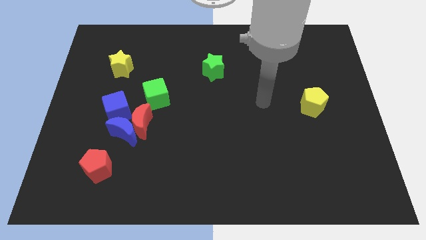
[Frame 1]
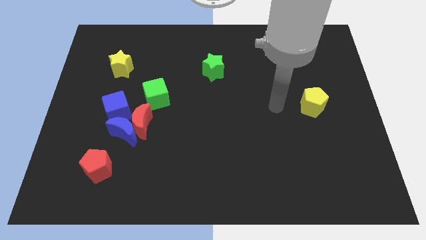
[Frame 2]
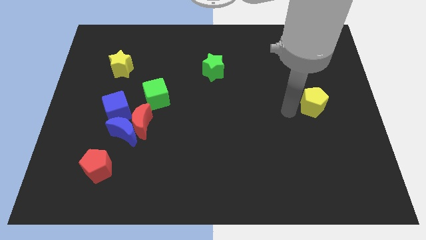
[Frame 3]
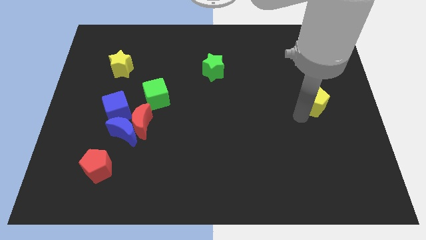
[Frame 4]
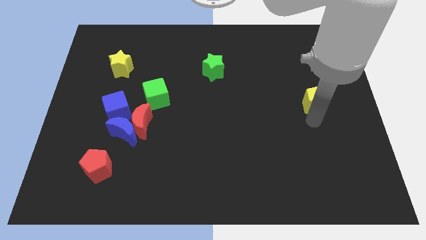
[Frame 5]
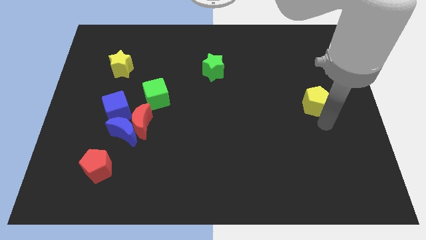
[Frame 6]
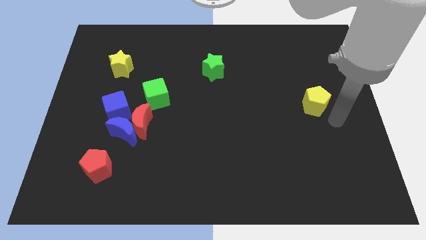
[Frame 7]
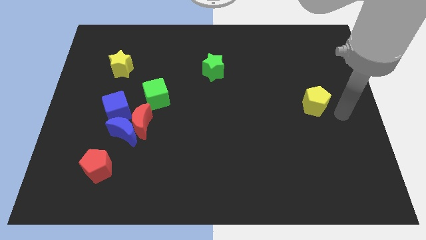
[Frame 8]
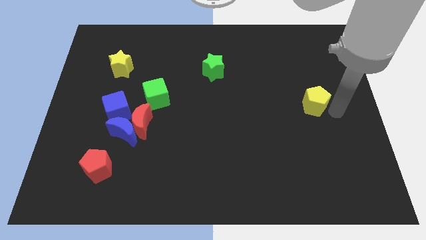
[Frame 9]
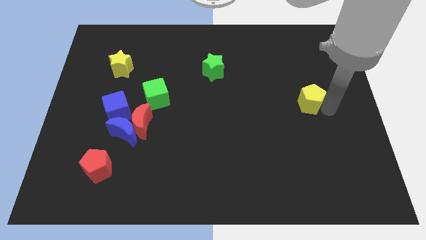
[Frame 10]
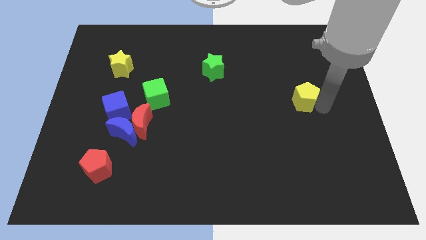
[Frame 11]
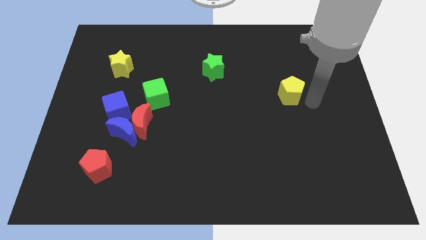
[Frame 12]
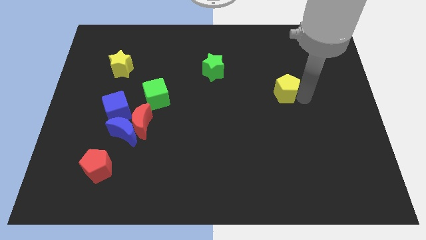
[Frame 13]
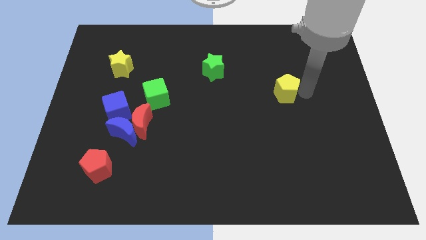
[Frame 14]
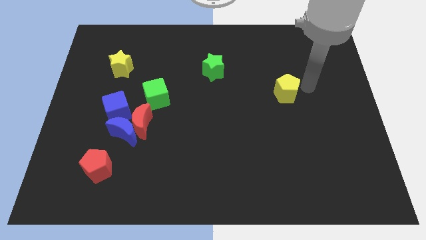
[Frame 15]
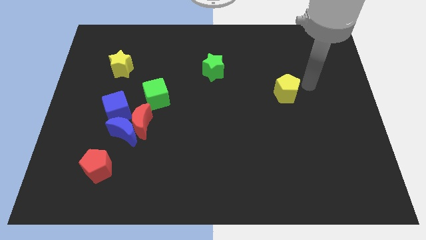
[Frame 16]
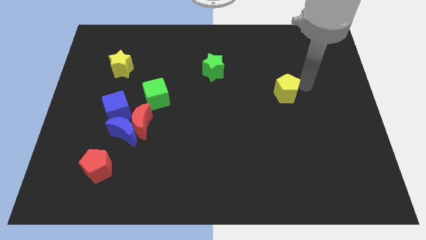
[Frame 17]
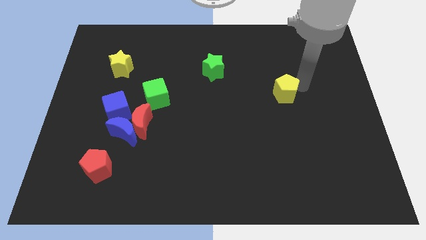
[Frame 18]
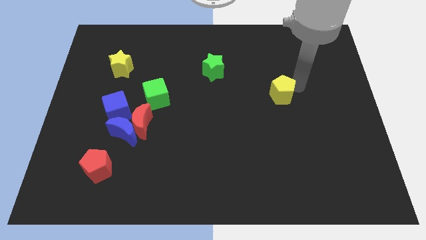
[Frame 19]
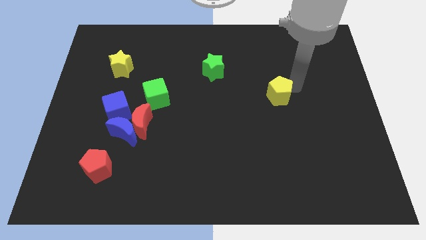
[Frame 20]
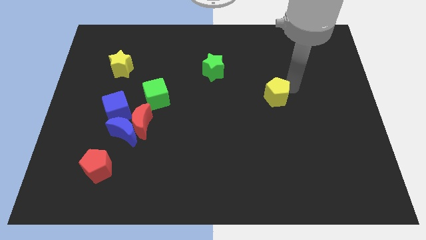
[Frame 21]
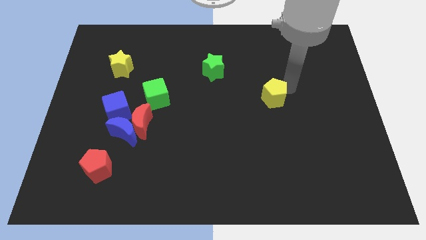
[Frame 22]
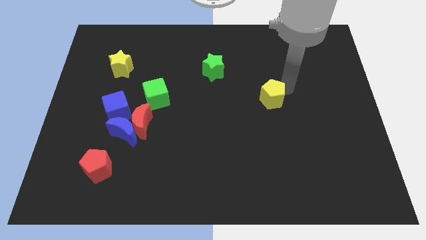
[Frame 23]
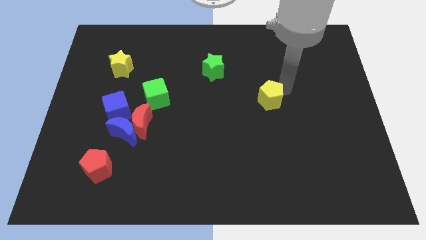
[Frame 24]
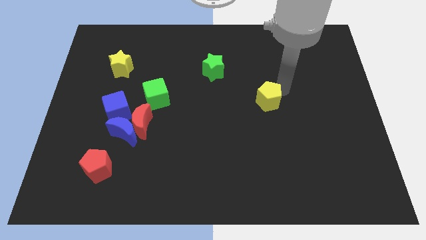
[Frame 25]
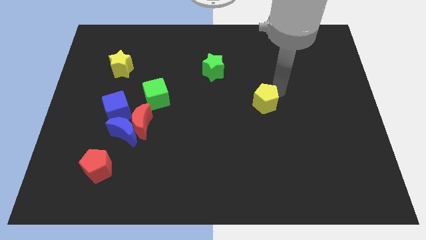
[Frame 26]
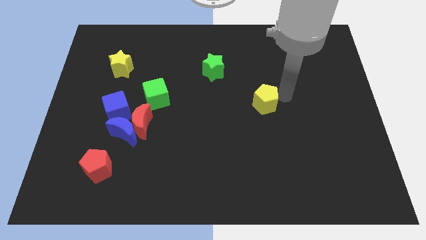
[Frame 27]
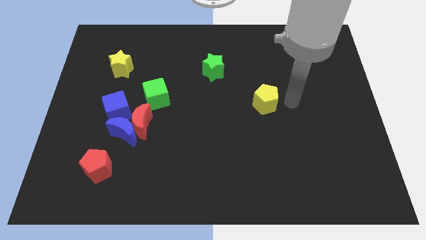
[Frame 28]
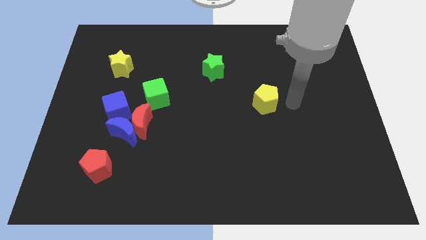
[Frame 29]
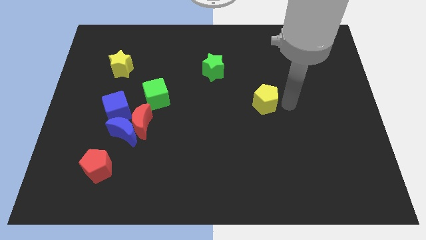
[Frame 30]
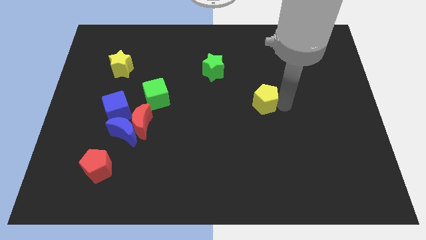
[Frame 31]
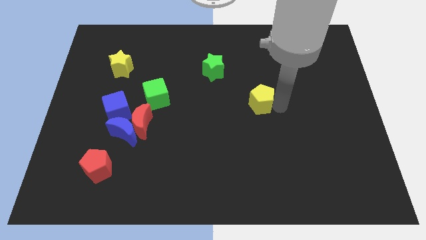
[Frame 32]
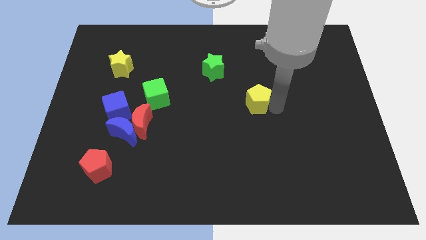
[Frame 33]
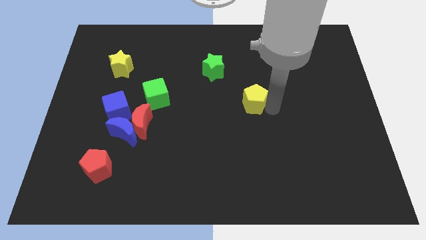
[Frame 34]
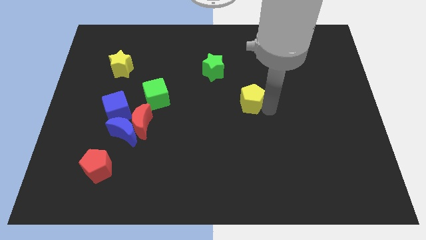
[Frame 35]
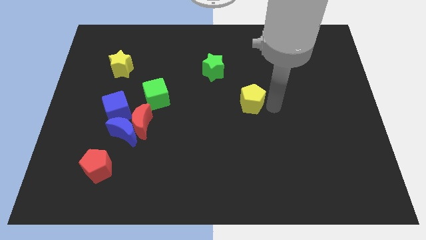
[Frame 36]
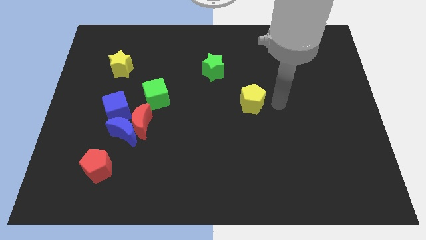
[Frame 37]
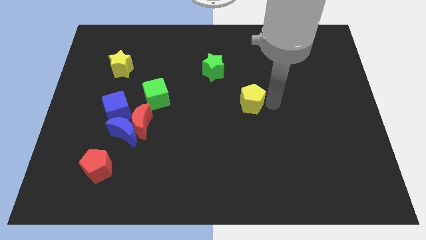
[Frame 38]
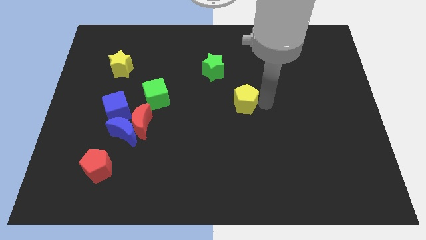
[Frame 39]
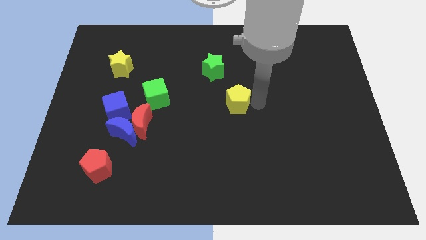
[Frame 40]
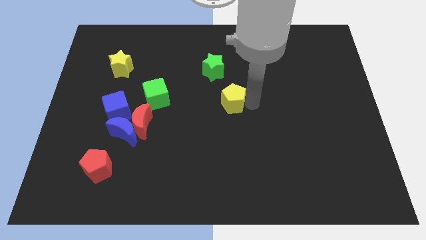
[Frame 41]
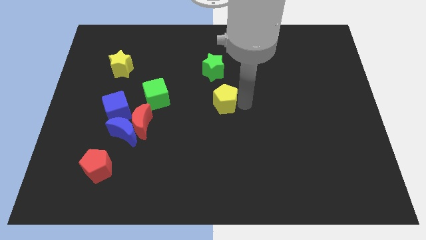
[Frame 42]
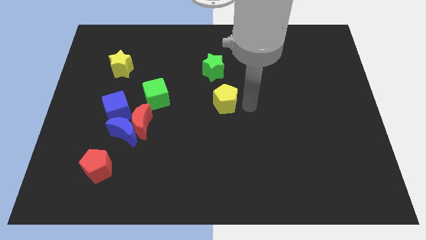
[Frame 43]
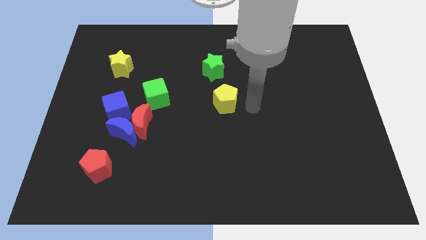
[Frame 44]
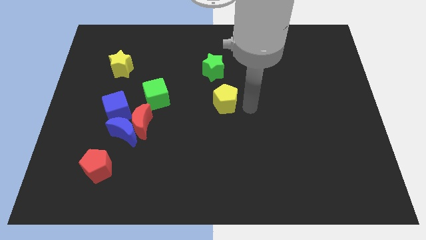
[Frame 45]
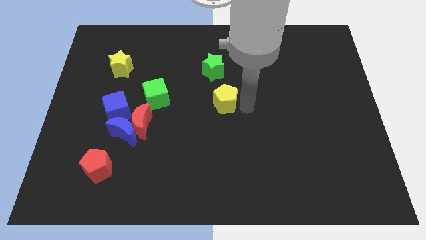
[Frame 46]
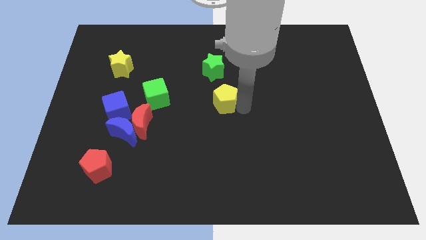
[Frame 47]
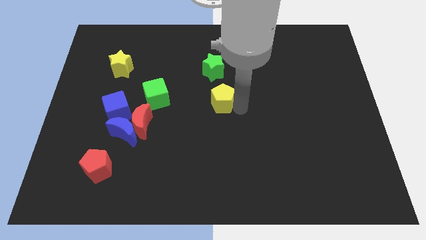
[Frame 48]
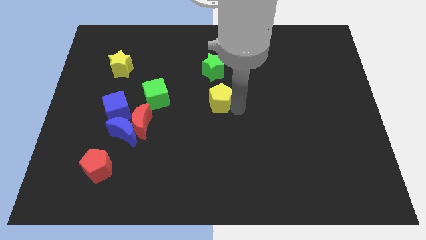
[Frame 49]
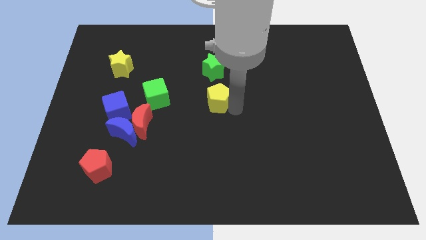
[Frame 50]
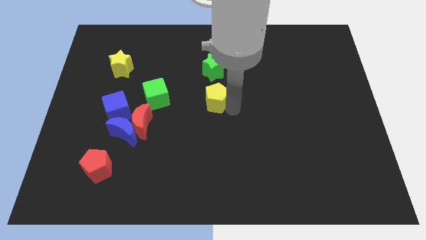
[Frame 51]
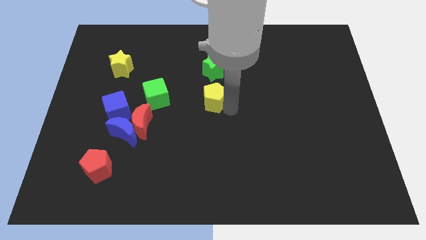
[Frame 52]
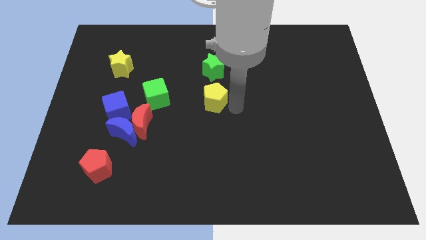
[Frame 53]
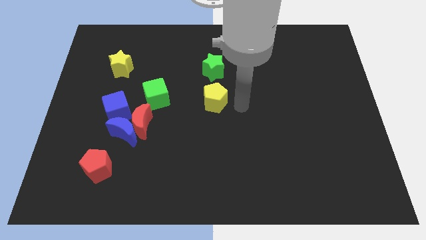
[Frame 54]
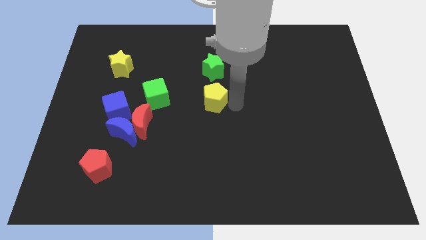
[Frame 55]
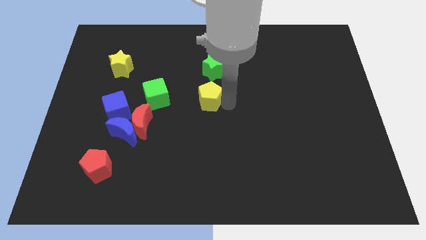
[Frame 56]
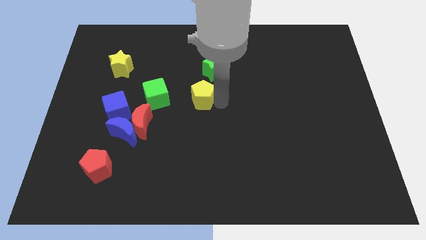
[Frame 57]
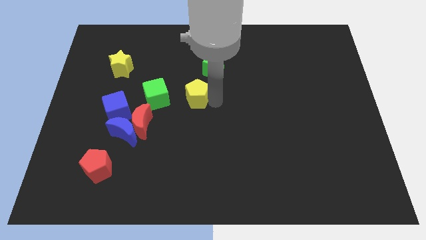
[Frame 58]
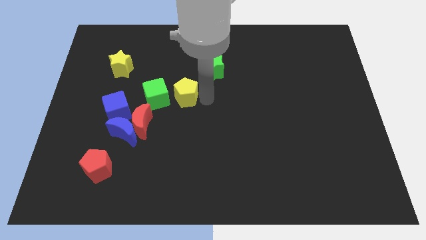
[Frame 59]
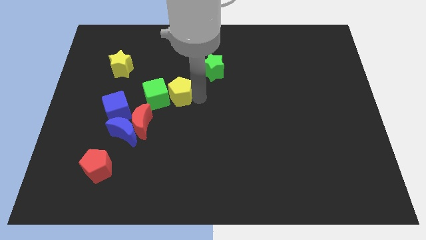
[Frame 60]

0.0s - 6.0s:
slide the yellow pentagon towards the green cube

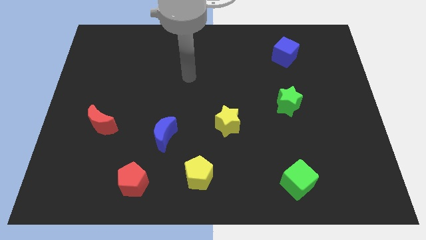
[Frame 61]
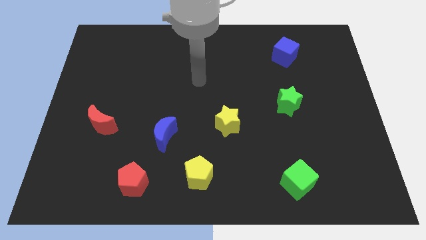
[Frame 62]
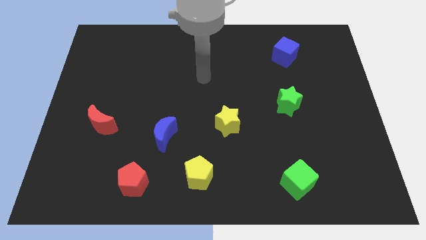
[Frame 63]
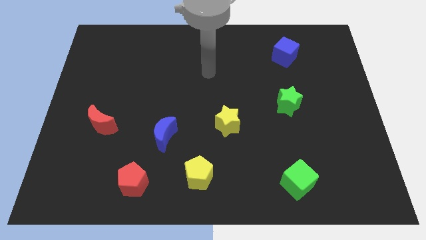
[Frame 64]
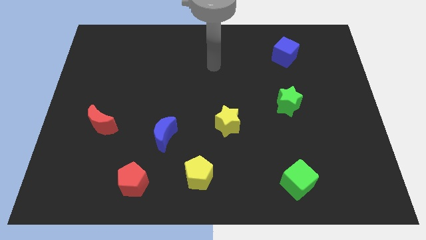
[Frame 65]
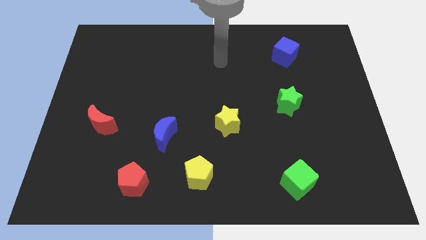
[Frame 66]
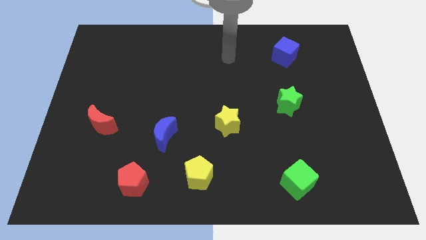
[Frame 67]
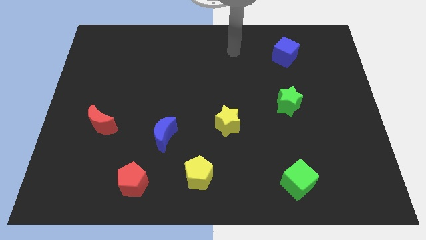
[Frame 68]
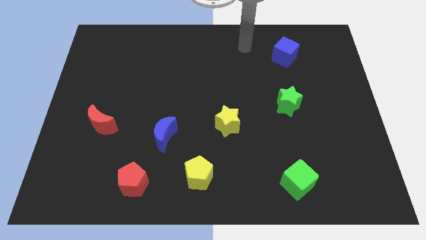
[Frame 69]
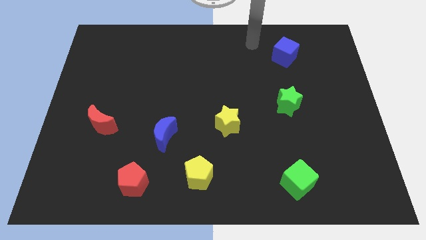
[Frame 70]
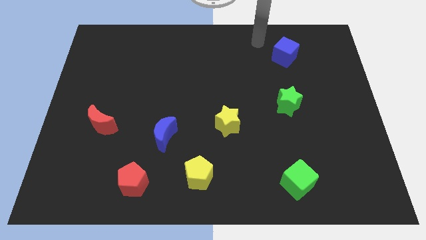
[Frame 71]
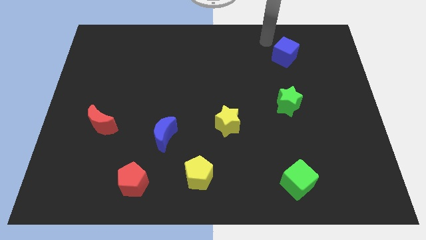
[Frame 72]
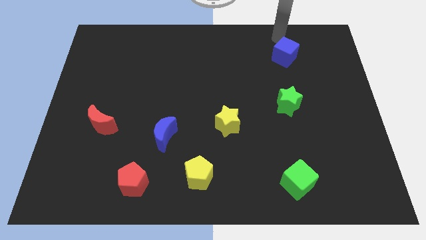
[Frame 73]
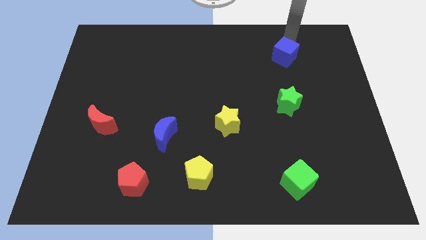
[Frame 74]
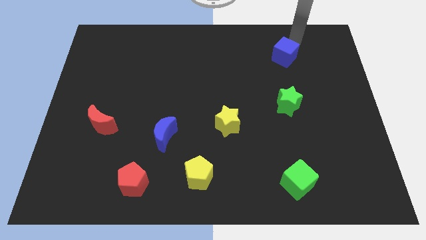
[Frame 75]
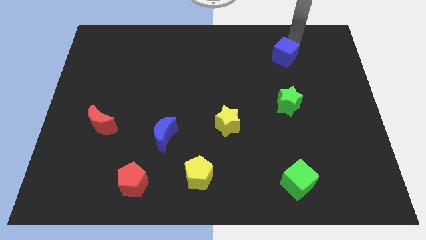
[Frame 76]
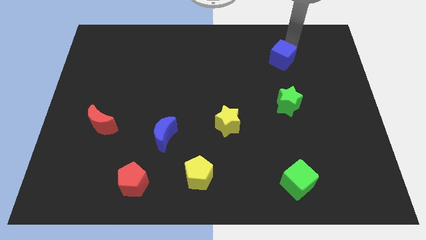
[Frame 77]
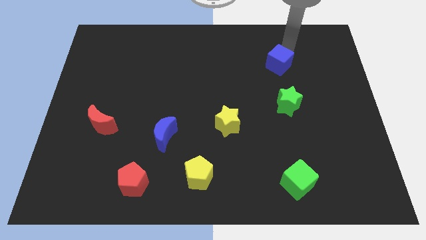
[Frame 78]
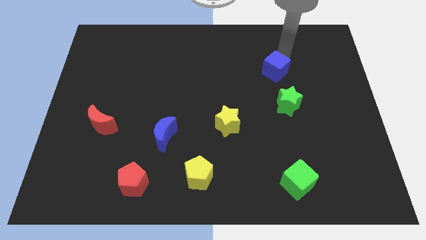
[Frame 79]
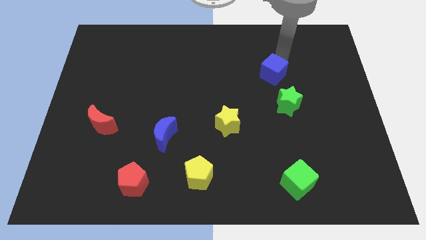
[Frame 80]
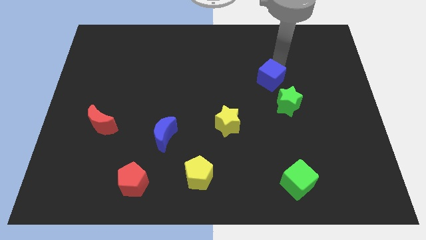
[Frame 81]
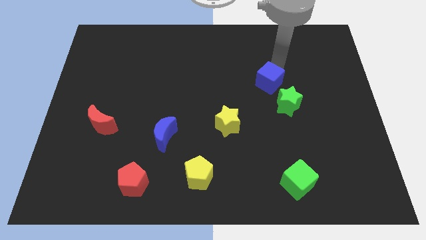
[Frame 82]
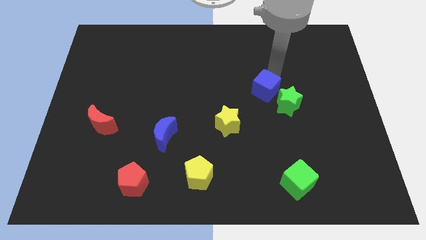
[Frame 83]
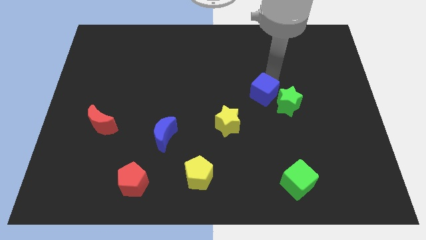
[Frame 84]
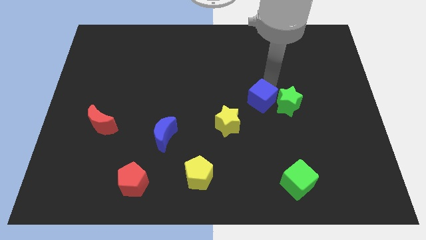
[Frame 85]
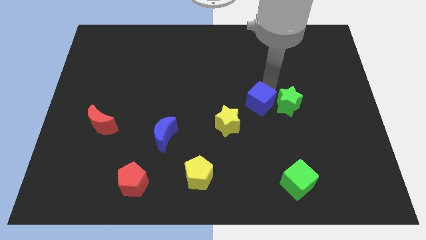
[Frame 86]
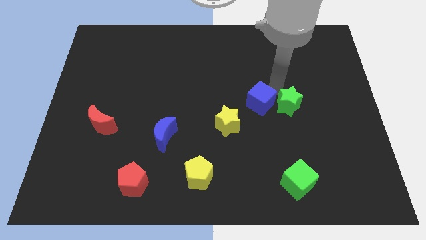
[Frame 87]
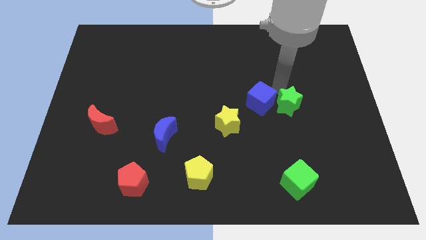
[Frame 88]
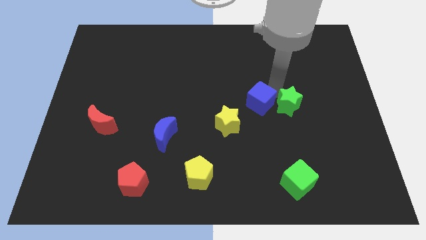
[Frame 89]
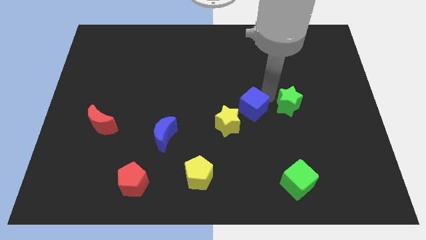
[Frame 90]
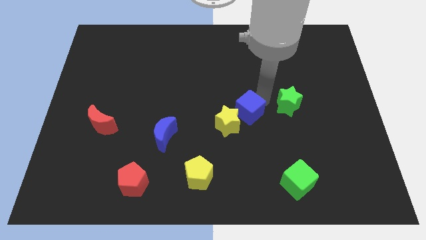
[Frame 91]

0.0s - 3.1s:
put the blue cube next to the yellow star
